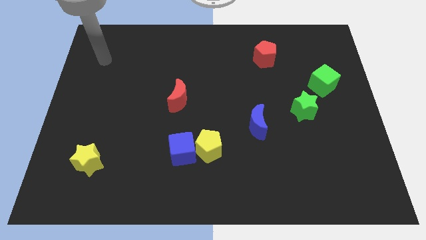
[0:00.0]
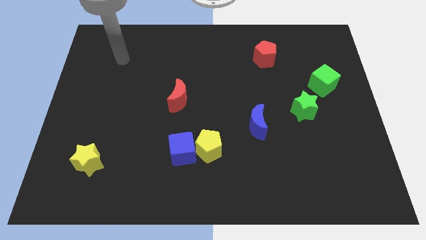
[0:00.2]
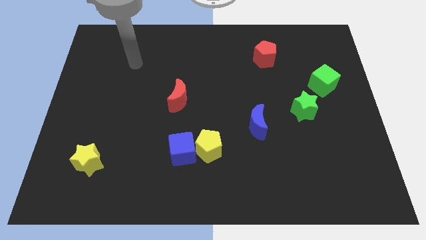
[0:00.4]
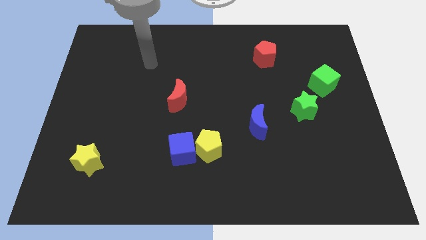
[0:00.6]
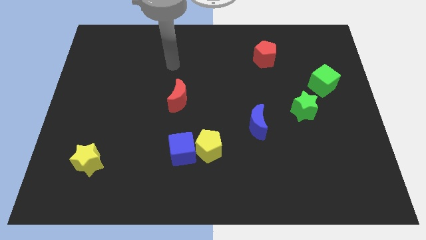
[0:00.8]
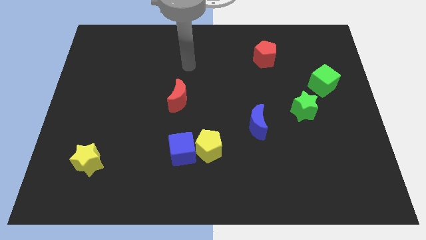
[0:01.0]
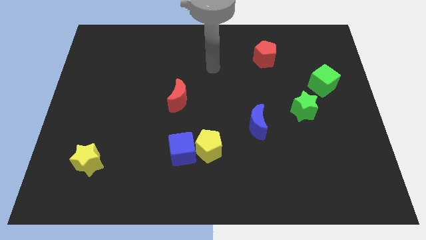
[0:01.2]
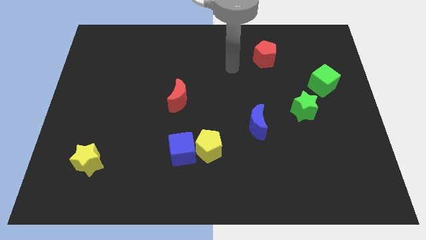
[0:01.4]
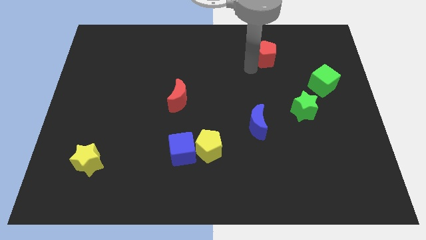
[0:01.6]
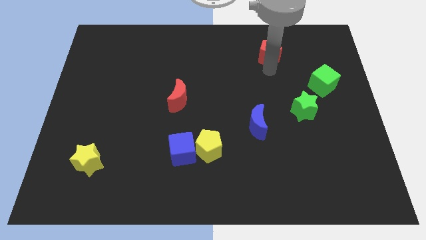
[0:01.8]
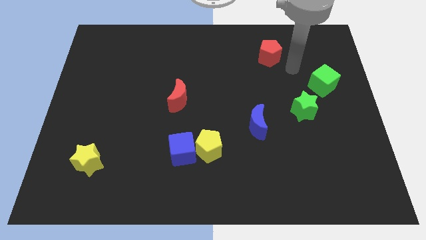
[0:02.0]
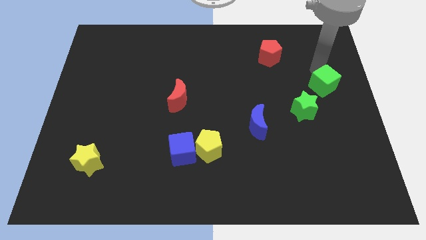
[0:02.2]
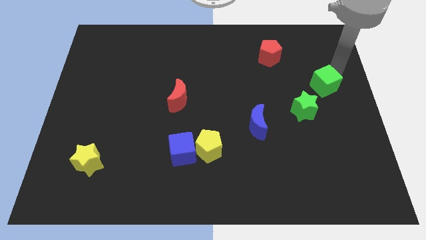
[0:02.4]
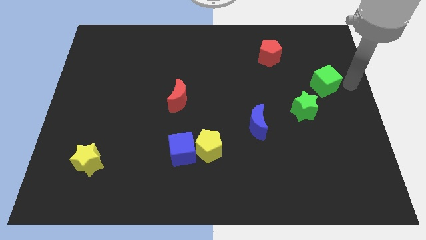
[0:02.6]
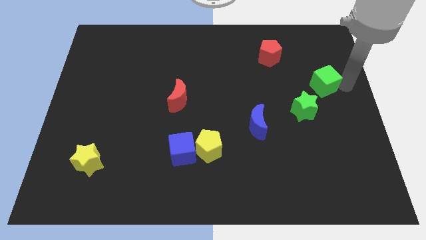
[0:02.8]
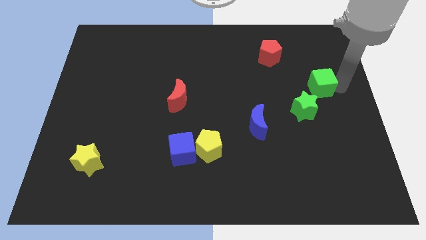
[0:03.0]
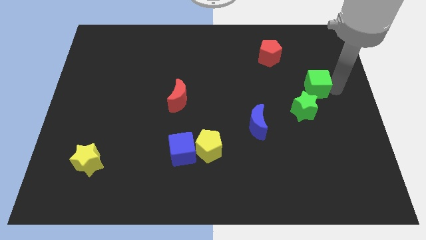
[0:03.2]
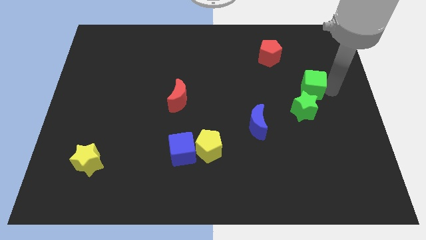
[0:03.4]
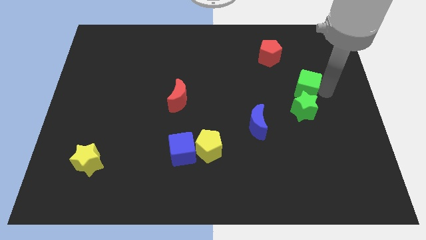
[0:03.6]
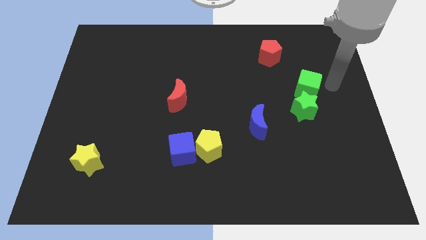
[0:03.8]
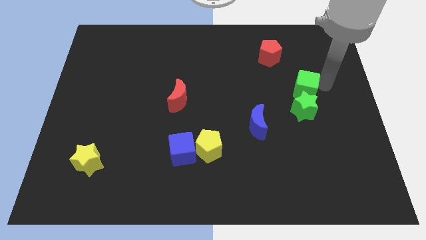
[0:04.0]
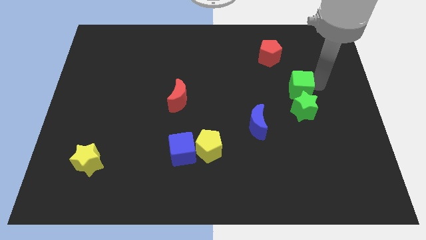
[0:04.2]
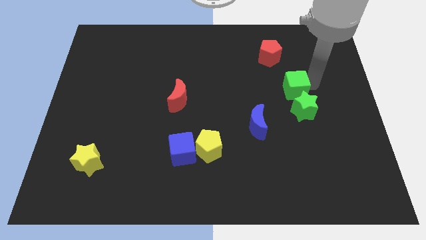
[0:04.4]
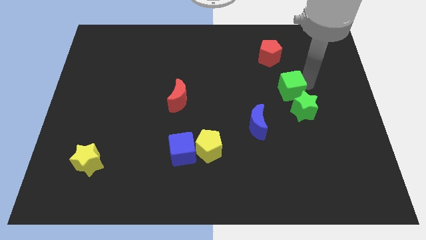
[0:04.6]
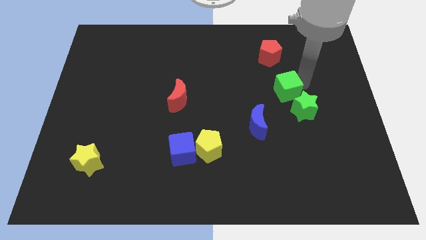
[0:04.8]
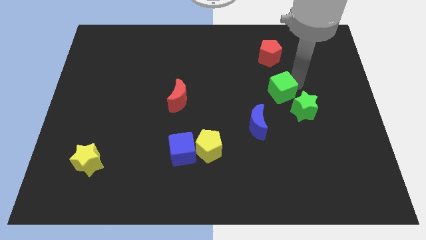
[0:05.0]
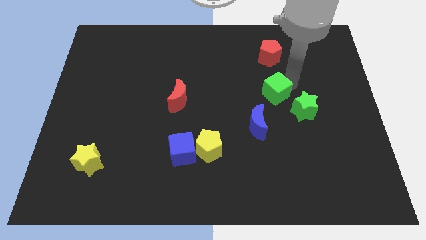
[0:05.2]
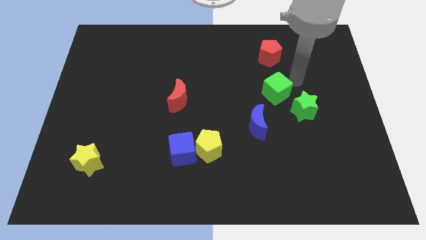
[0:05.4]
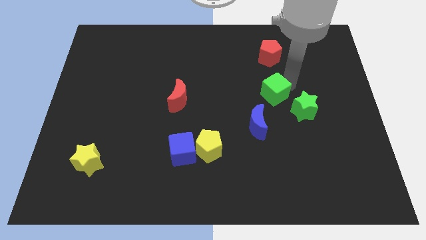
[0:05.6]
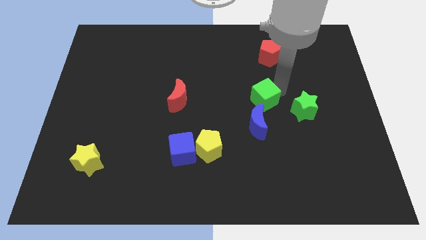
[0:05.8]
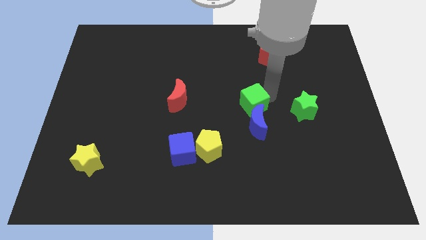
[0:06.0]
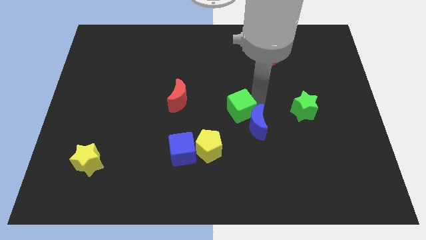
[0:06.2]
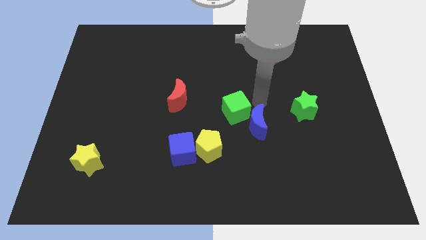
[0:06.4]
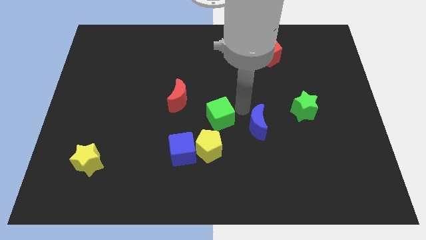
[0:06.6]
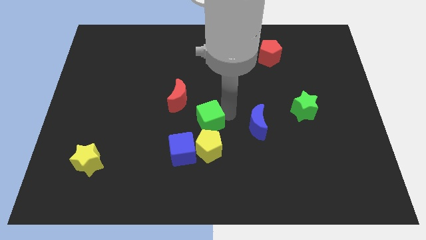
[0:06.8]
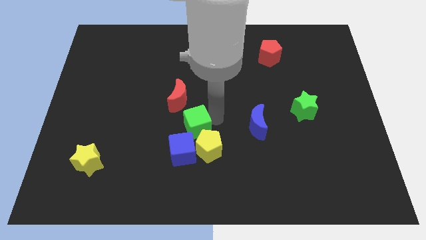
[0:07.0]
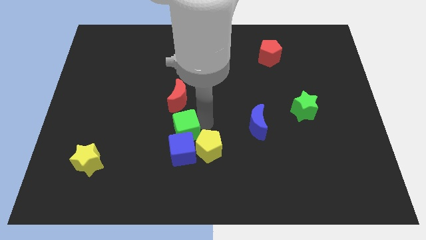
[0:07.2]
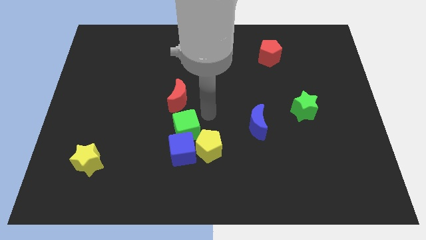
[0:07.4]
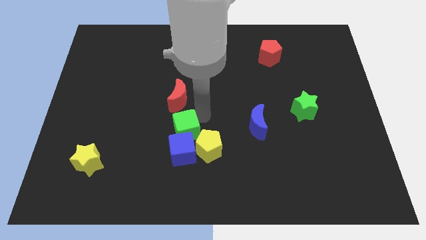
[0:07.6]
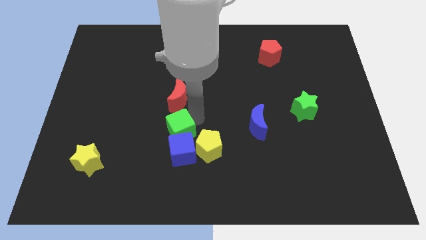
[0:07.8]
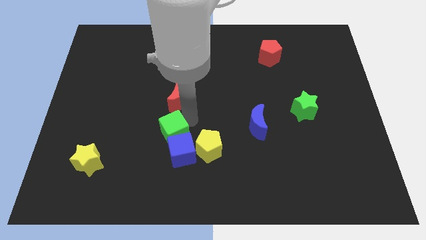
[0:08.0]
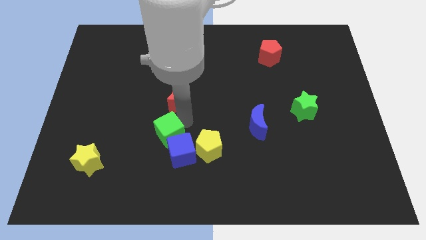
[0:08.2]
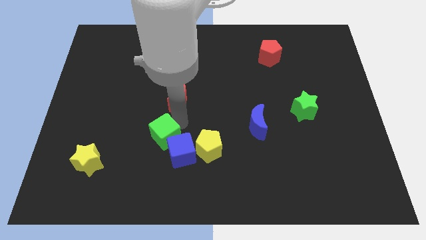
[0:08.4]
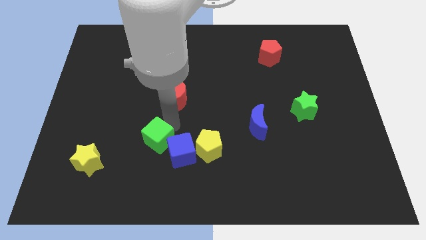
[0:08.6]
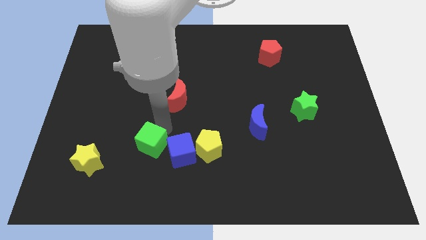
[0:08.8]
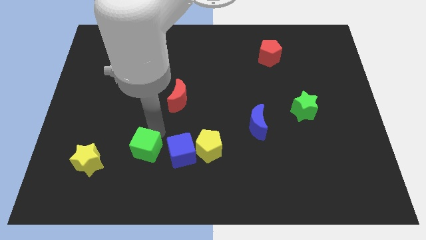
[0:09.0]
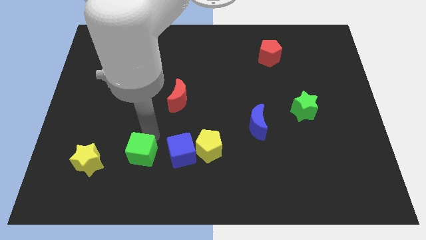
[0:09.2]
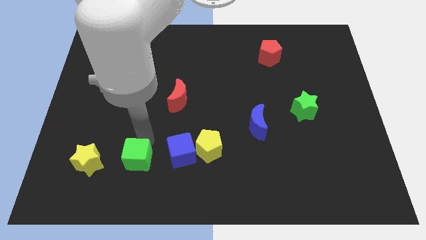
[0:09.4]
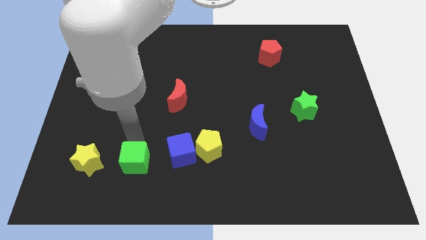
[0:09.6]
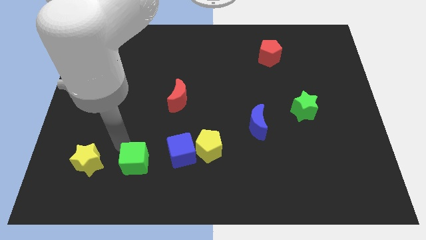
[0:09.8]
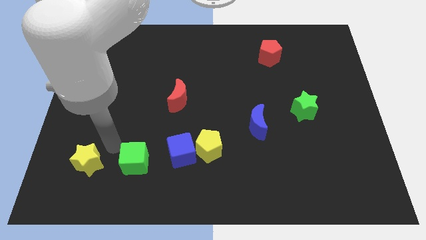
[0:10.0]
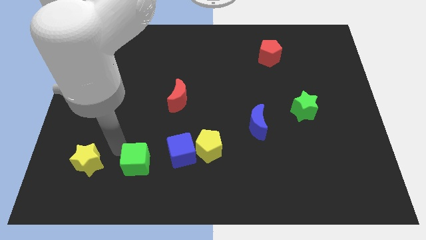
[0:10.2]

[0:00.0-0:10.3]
push the green cube to the bottom left of the blue cube

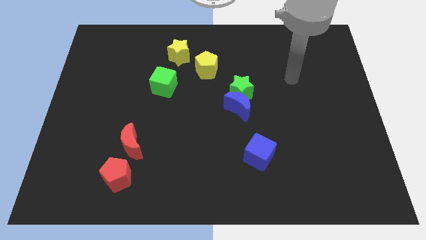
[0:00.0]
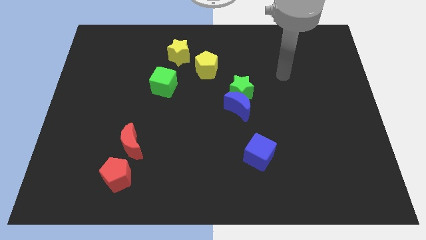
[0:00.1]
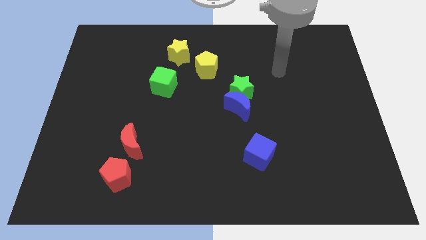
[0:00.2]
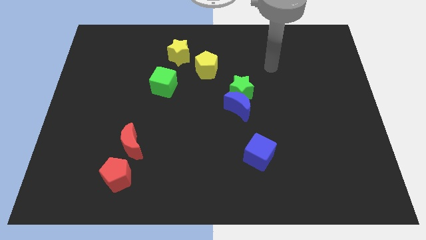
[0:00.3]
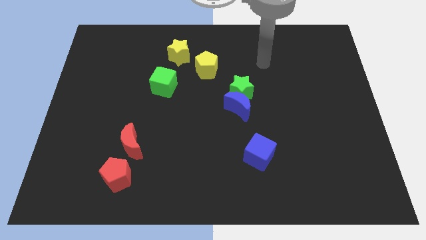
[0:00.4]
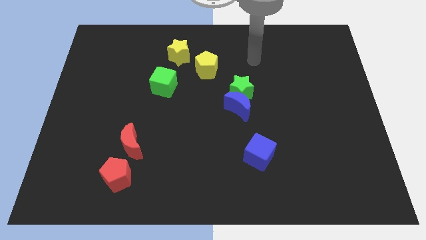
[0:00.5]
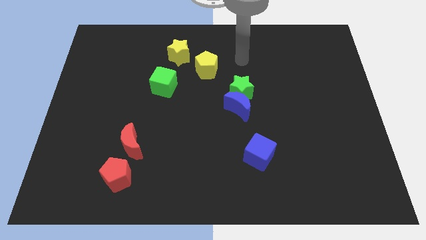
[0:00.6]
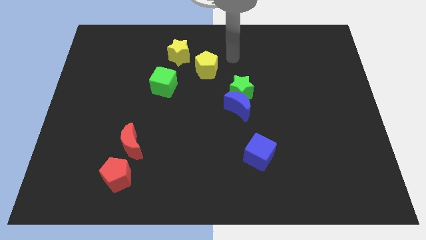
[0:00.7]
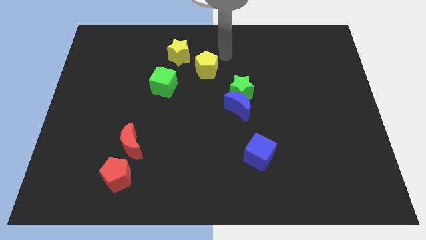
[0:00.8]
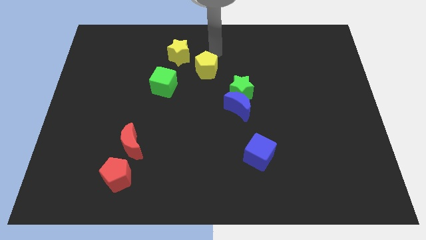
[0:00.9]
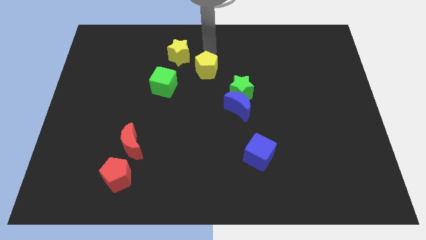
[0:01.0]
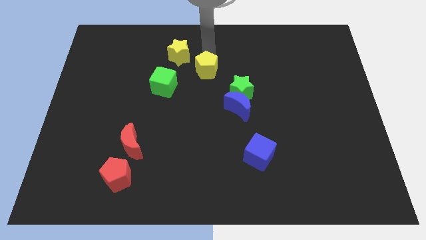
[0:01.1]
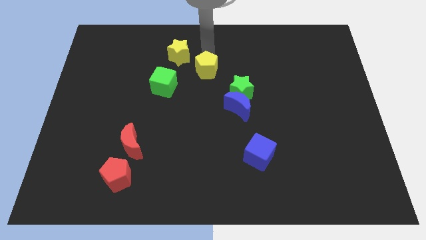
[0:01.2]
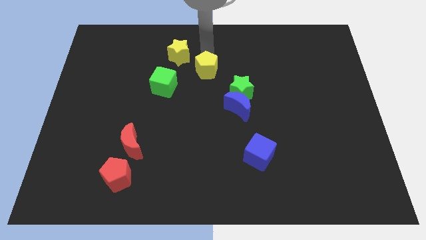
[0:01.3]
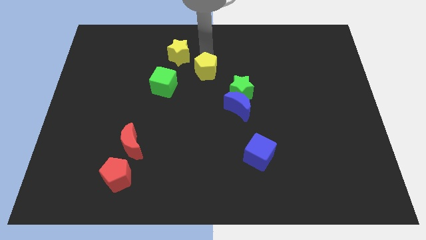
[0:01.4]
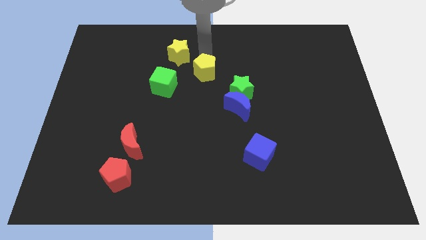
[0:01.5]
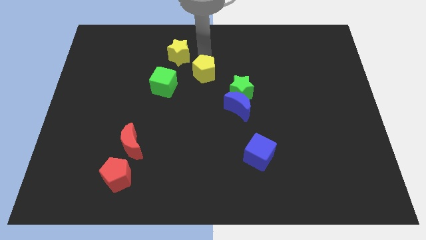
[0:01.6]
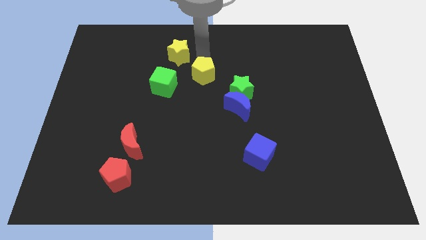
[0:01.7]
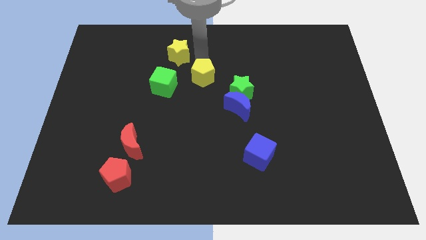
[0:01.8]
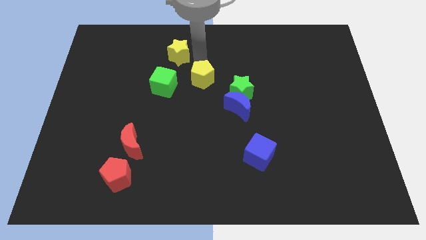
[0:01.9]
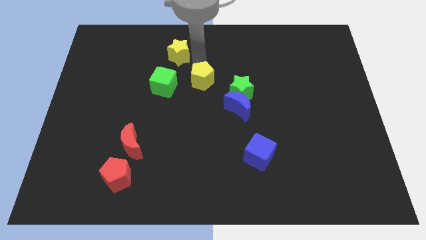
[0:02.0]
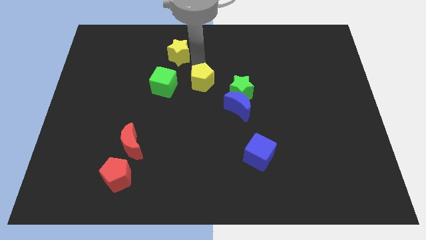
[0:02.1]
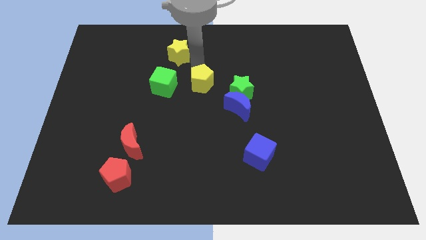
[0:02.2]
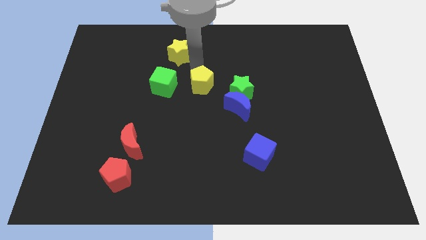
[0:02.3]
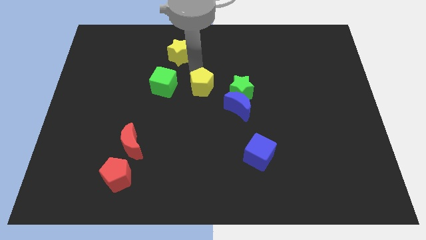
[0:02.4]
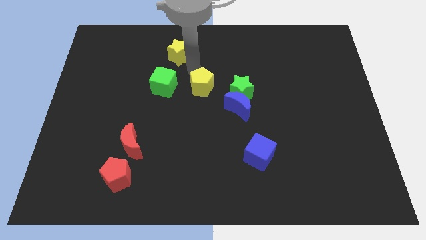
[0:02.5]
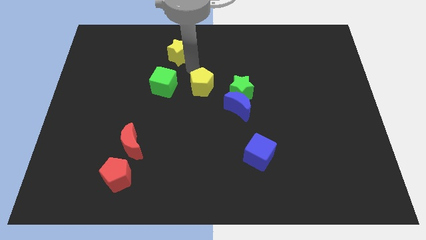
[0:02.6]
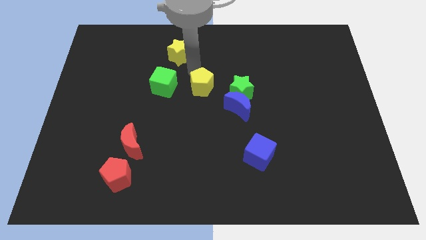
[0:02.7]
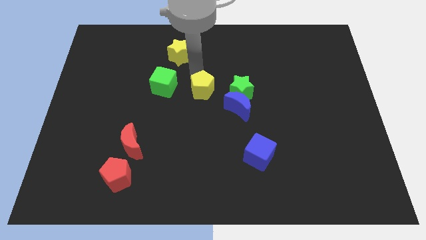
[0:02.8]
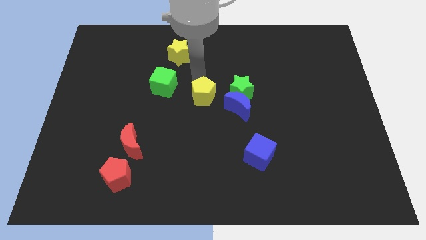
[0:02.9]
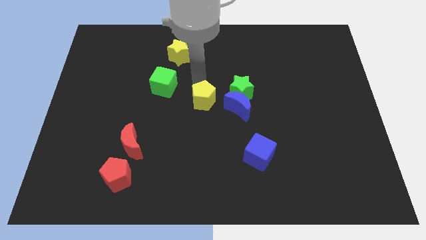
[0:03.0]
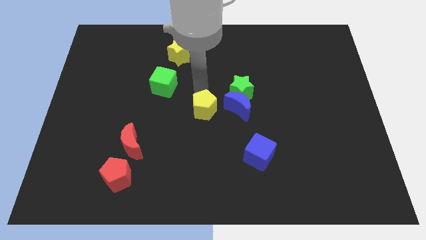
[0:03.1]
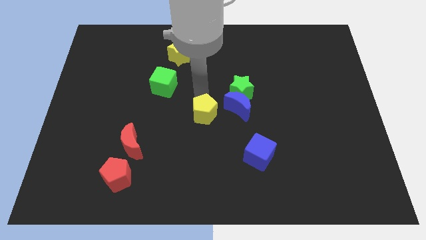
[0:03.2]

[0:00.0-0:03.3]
push the yellow pentagon to the bottom left of the blue moon
